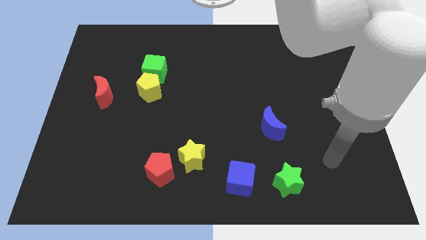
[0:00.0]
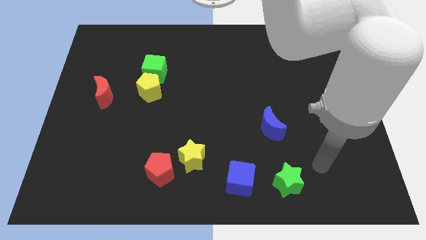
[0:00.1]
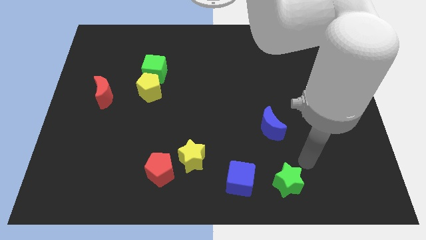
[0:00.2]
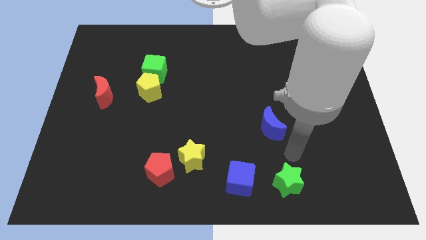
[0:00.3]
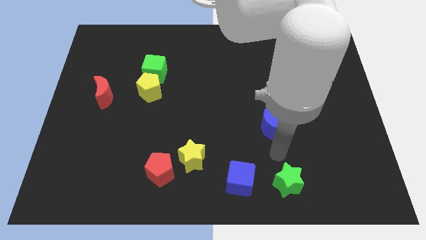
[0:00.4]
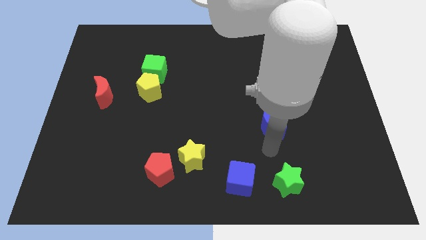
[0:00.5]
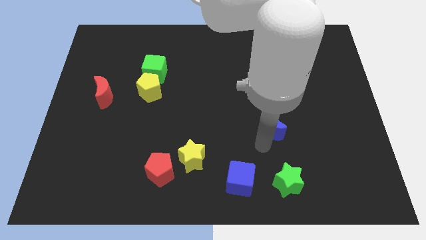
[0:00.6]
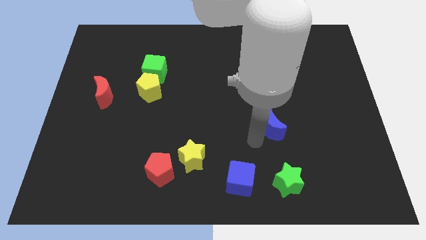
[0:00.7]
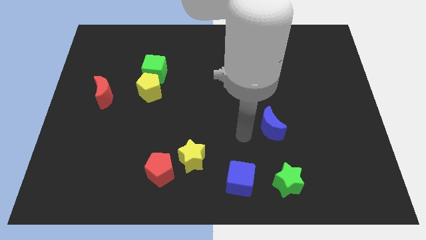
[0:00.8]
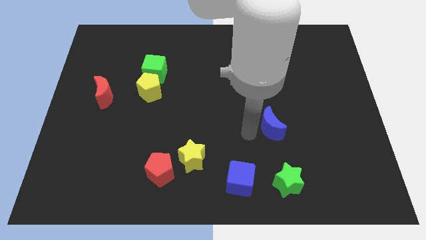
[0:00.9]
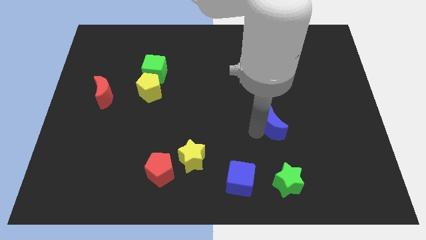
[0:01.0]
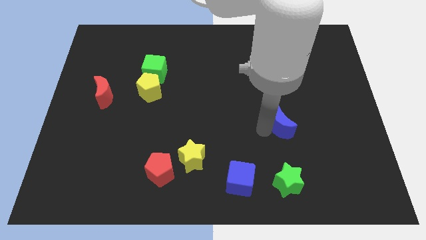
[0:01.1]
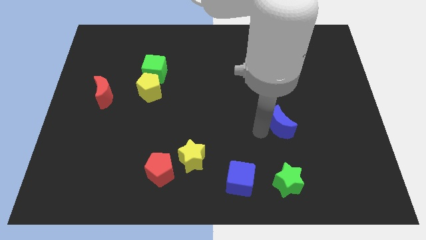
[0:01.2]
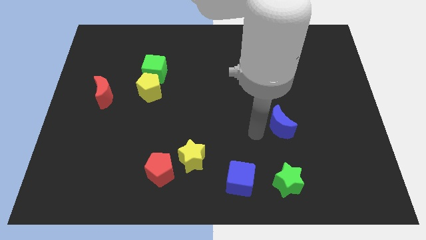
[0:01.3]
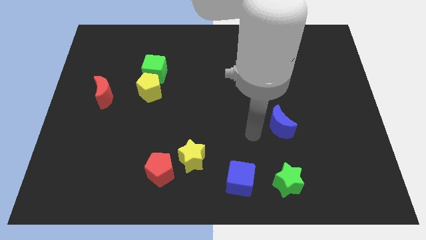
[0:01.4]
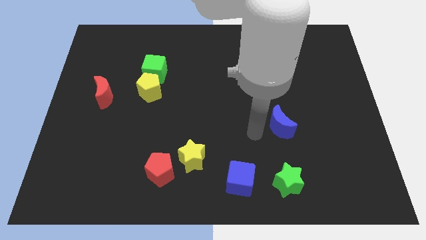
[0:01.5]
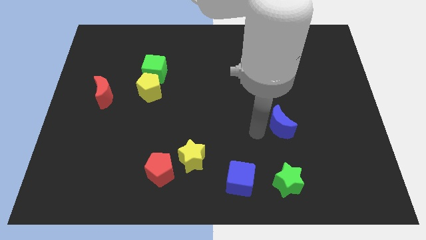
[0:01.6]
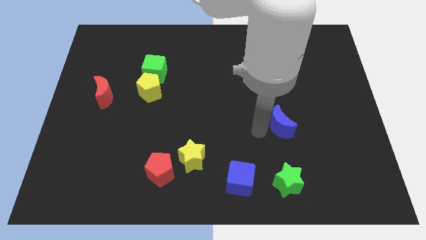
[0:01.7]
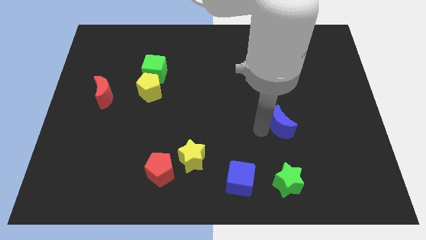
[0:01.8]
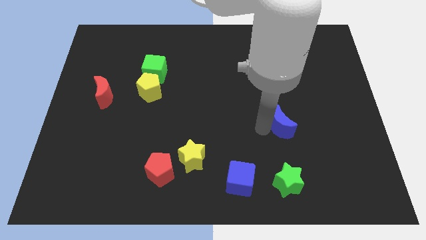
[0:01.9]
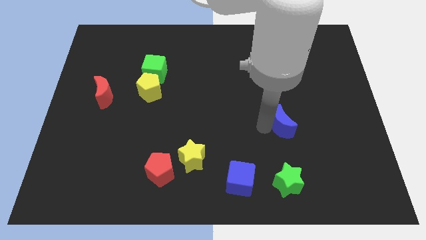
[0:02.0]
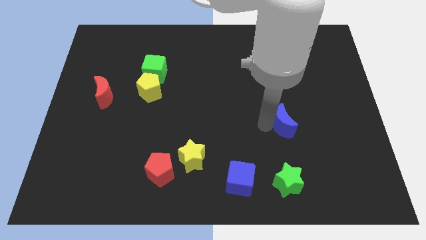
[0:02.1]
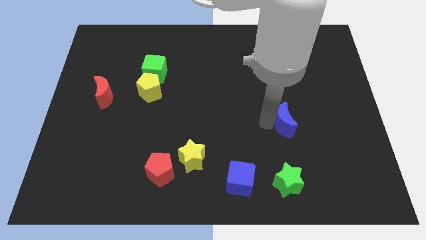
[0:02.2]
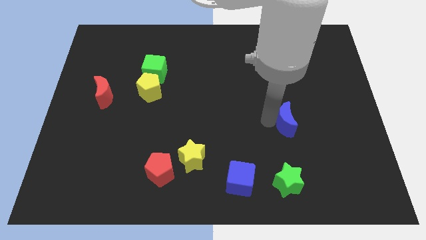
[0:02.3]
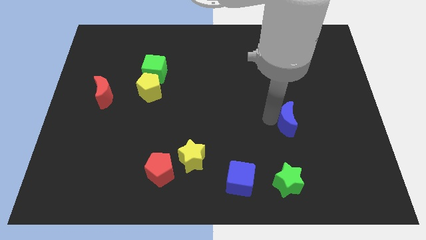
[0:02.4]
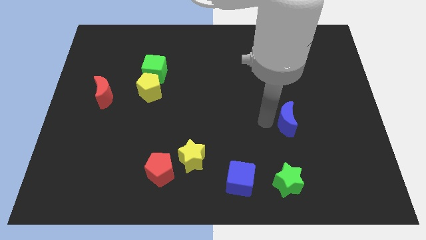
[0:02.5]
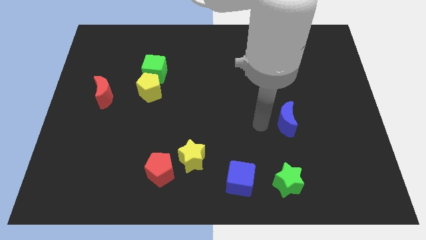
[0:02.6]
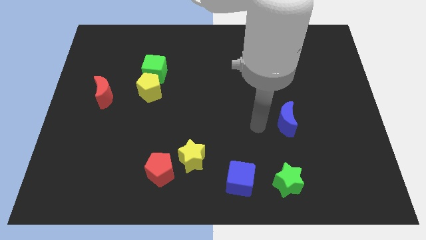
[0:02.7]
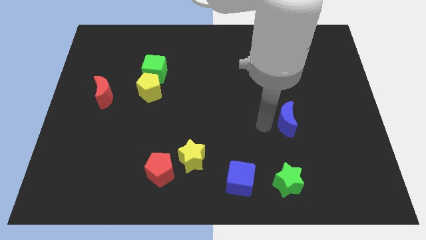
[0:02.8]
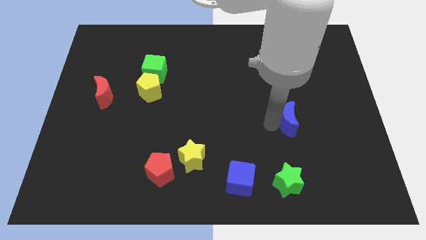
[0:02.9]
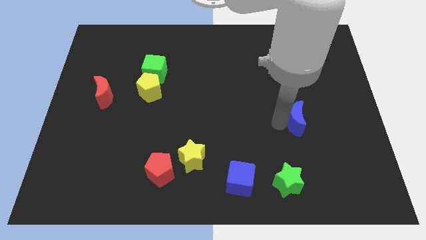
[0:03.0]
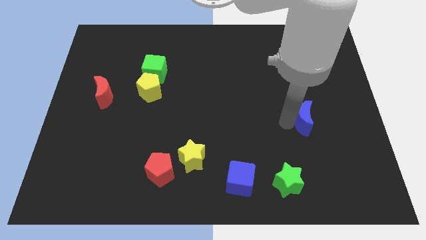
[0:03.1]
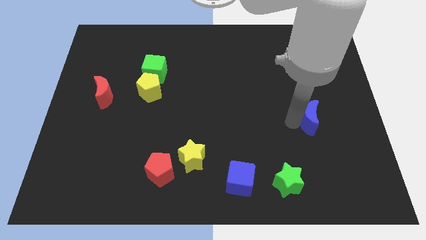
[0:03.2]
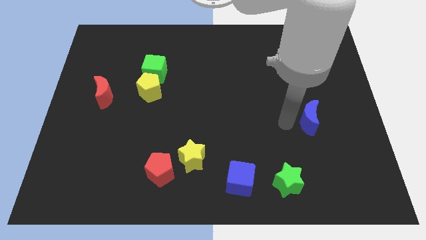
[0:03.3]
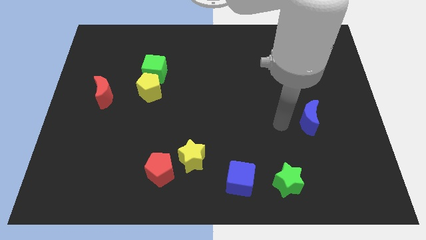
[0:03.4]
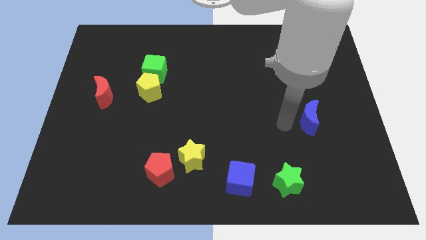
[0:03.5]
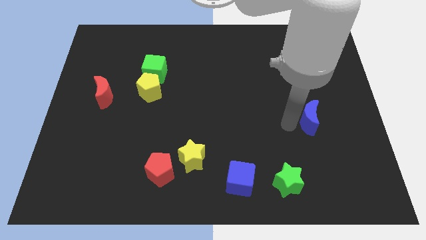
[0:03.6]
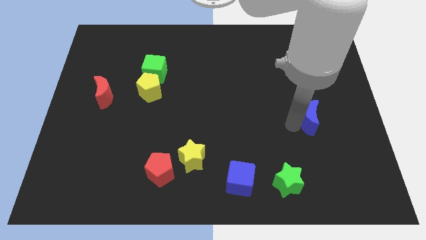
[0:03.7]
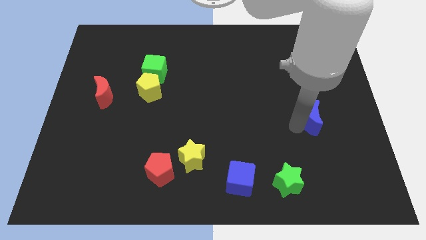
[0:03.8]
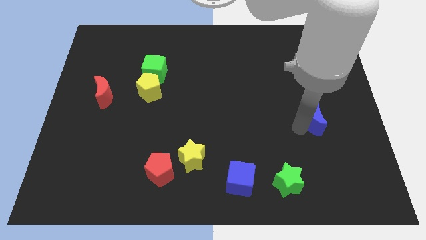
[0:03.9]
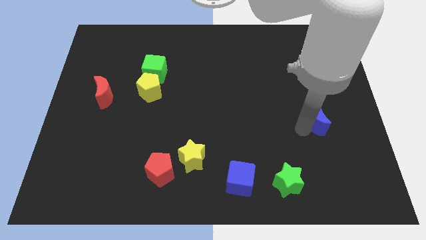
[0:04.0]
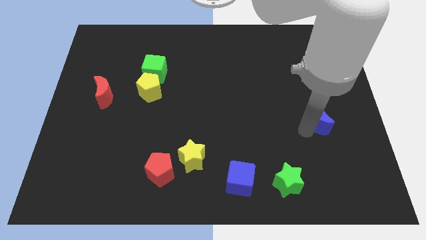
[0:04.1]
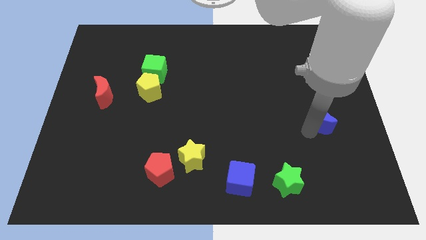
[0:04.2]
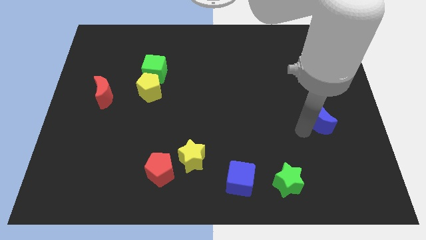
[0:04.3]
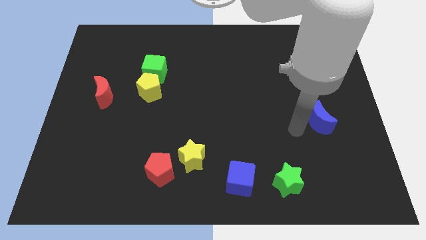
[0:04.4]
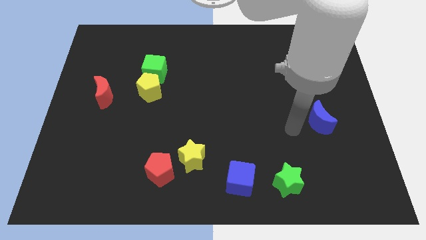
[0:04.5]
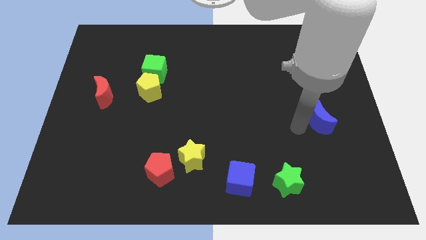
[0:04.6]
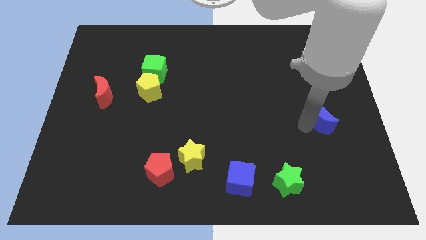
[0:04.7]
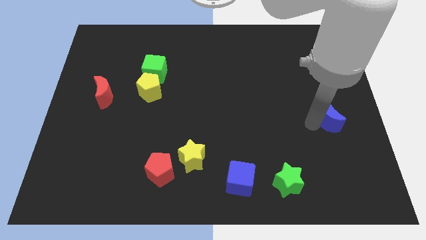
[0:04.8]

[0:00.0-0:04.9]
push the blue moon to the right side

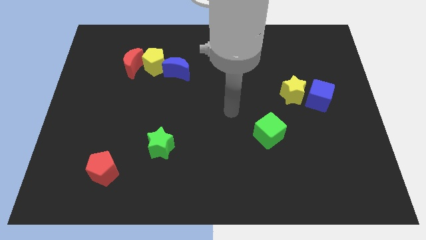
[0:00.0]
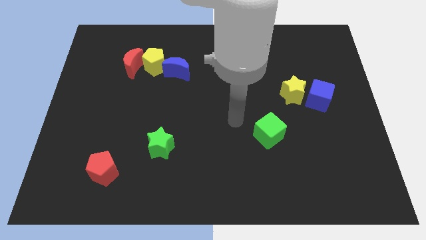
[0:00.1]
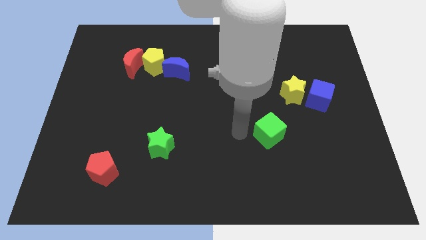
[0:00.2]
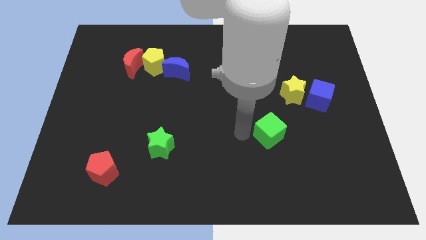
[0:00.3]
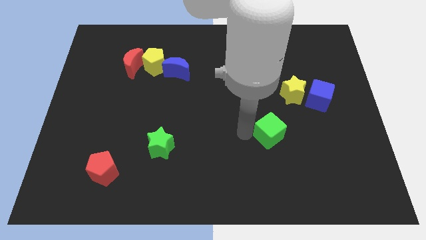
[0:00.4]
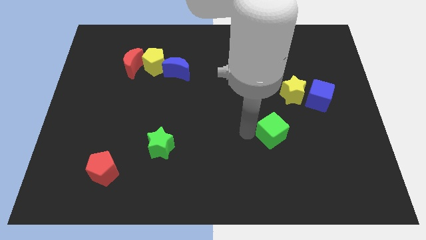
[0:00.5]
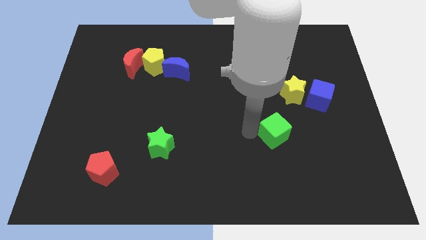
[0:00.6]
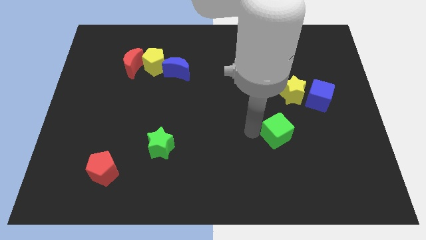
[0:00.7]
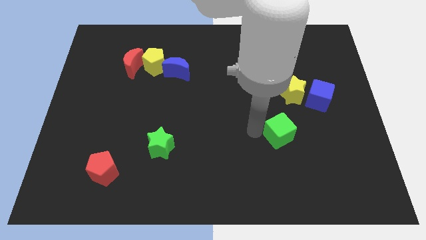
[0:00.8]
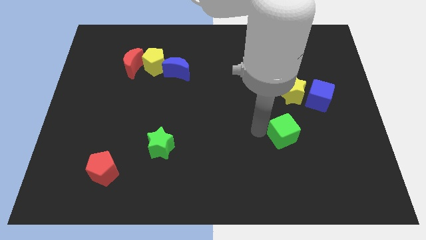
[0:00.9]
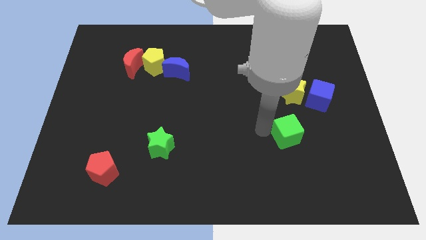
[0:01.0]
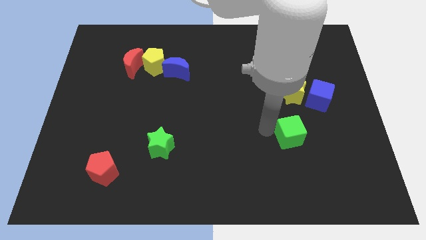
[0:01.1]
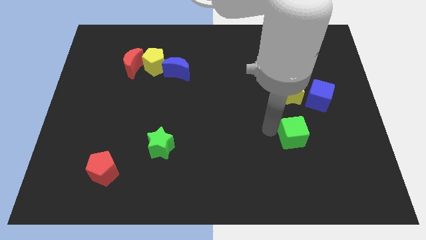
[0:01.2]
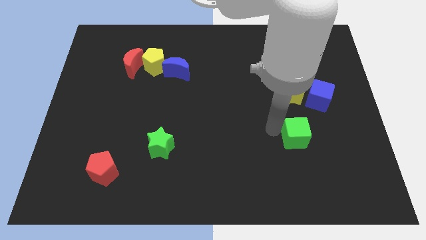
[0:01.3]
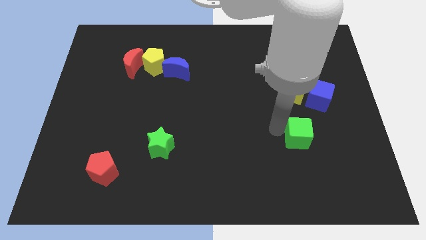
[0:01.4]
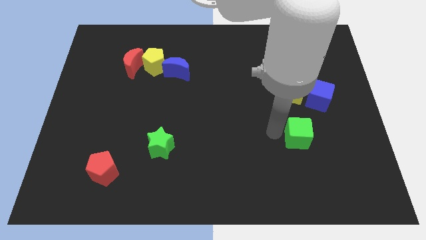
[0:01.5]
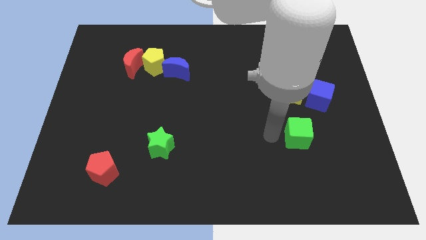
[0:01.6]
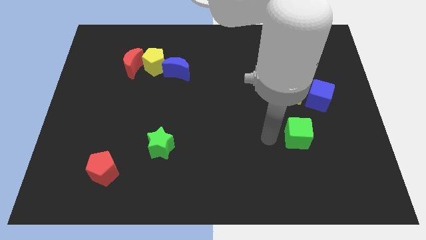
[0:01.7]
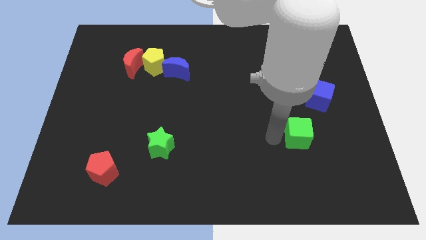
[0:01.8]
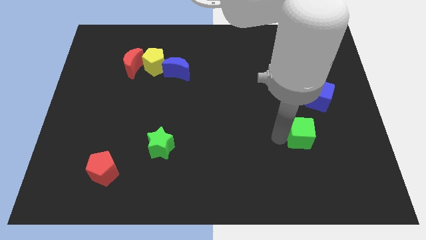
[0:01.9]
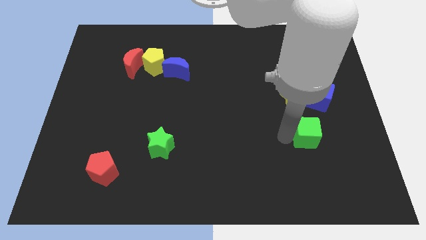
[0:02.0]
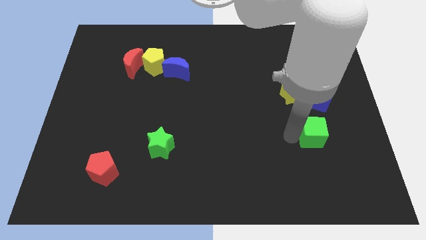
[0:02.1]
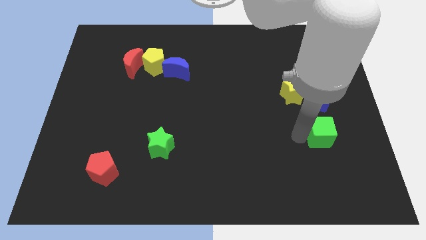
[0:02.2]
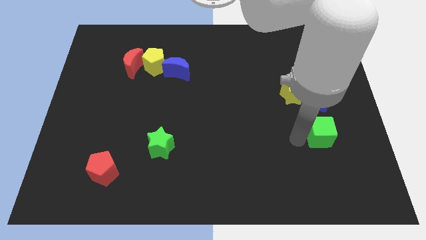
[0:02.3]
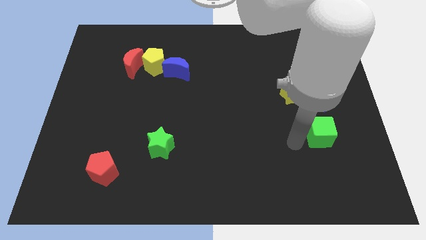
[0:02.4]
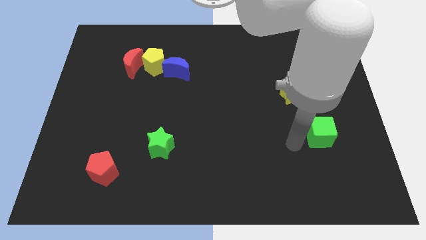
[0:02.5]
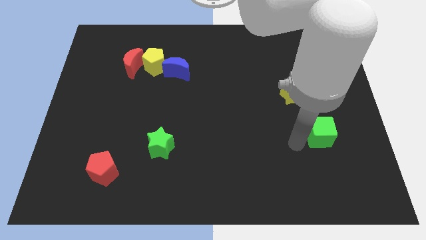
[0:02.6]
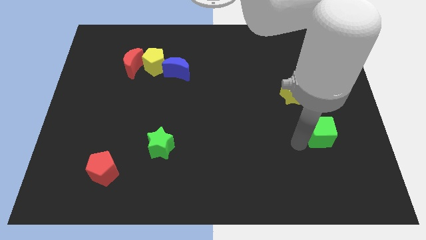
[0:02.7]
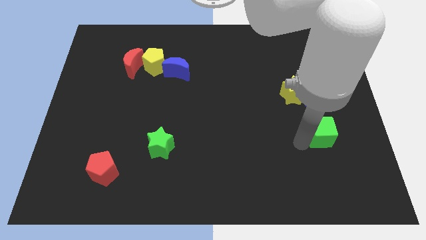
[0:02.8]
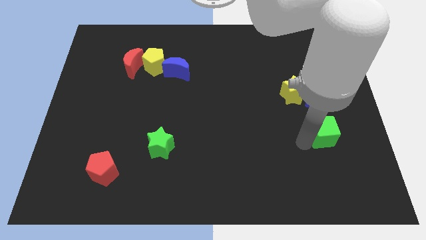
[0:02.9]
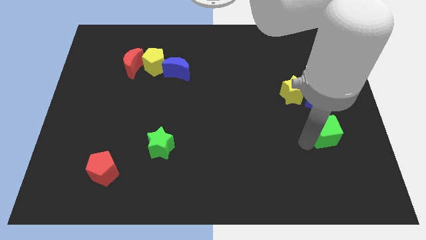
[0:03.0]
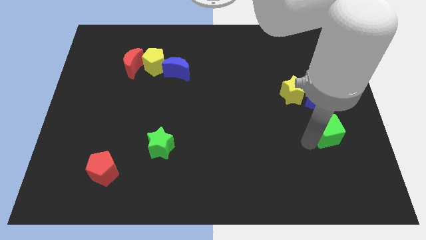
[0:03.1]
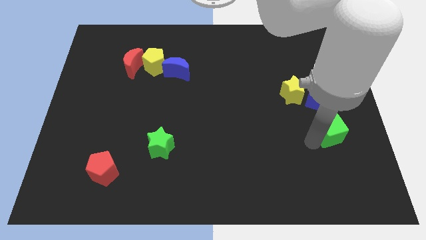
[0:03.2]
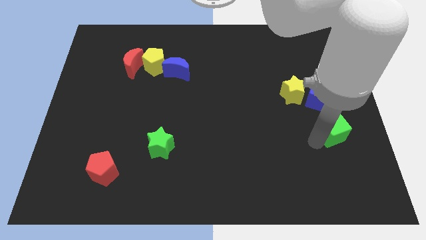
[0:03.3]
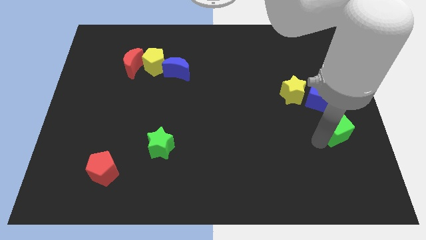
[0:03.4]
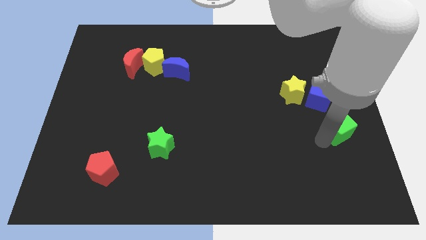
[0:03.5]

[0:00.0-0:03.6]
move the green cube to the center right
